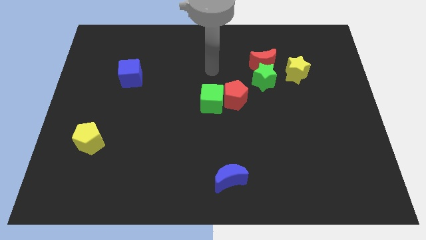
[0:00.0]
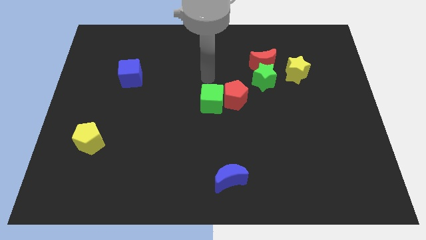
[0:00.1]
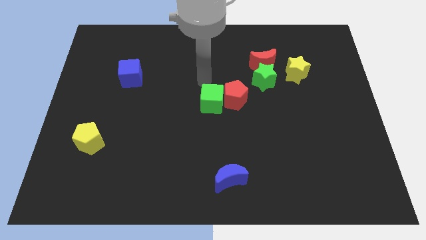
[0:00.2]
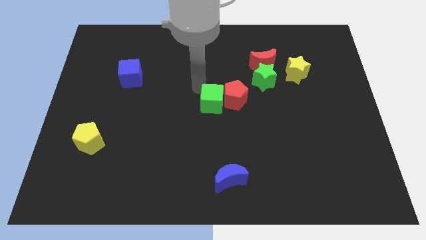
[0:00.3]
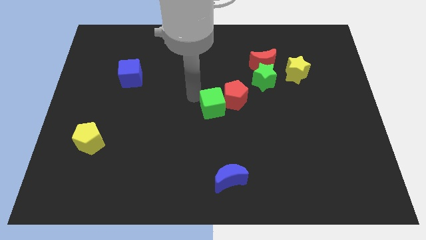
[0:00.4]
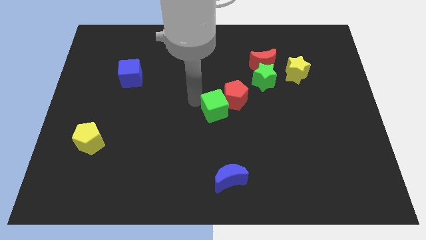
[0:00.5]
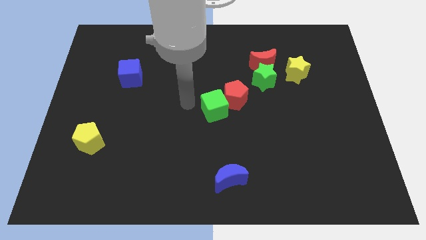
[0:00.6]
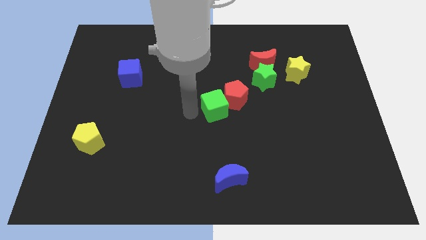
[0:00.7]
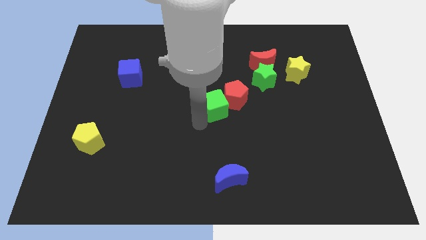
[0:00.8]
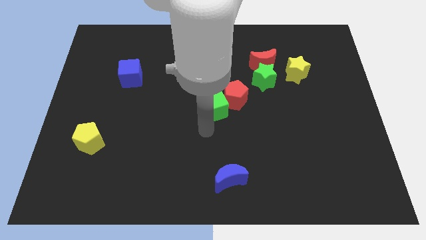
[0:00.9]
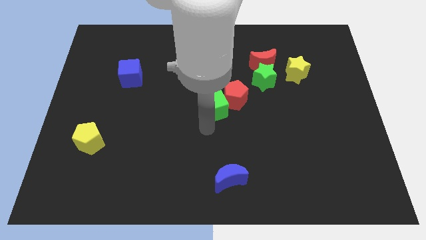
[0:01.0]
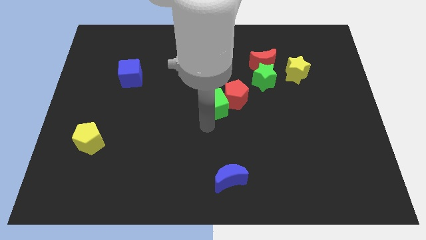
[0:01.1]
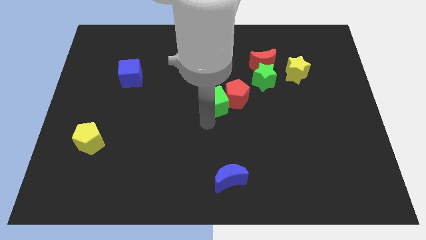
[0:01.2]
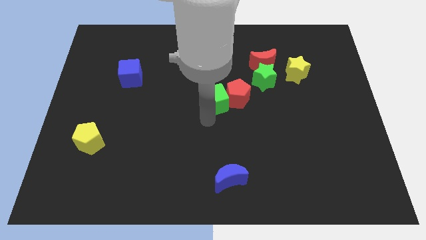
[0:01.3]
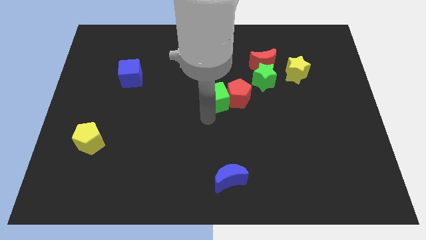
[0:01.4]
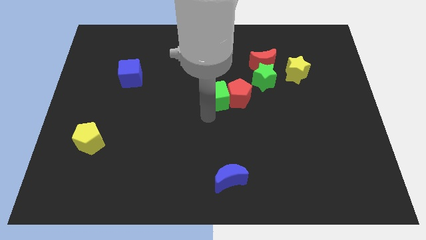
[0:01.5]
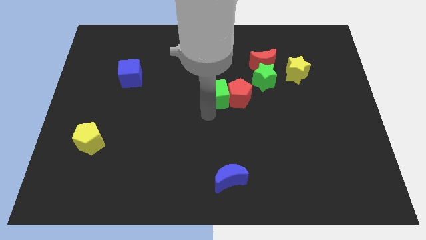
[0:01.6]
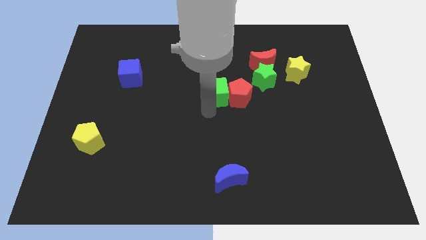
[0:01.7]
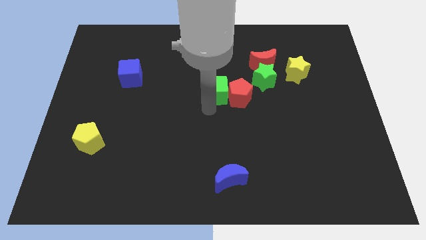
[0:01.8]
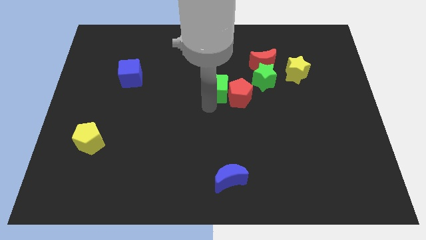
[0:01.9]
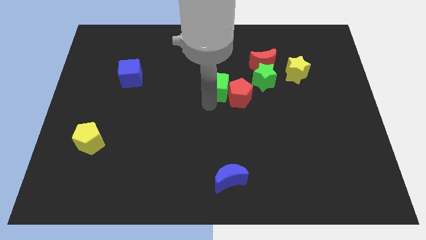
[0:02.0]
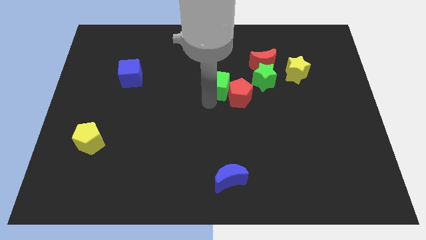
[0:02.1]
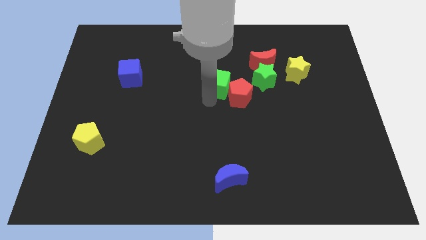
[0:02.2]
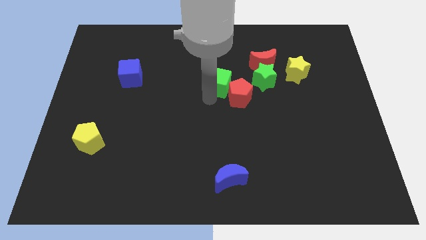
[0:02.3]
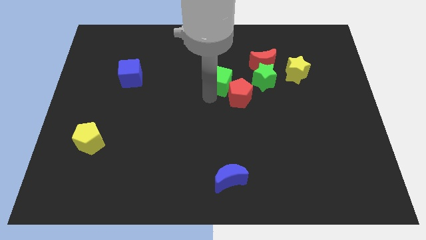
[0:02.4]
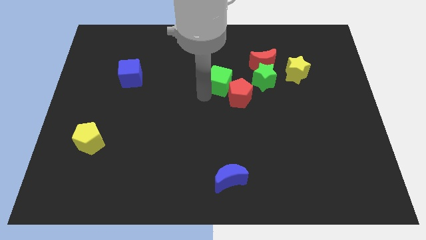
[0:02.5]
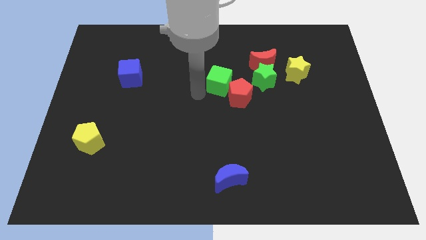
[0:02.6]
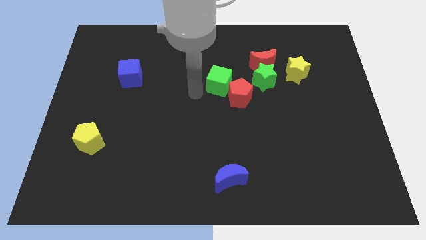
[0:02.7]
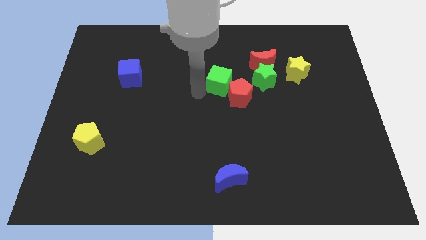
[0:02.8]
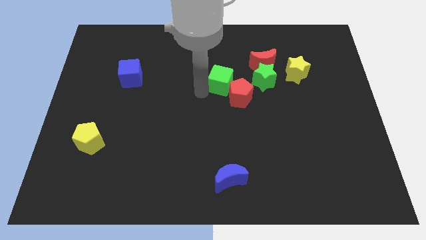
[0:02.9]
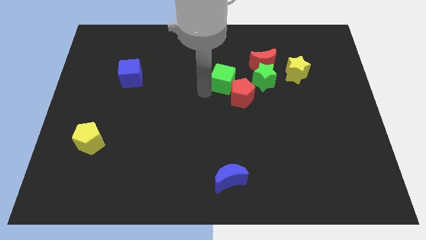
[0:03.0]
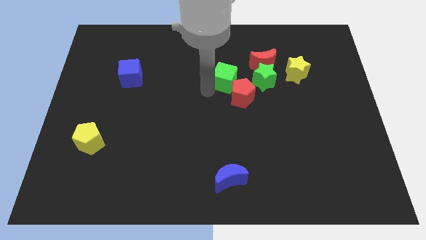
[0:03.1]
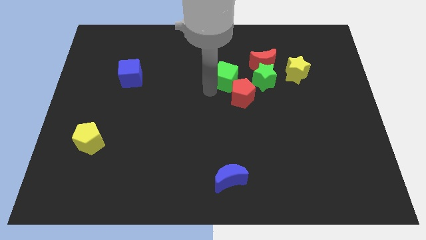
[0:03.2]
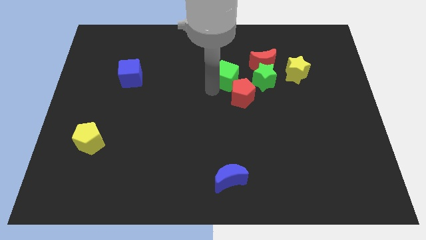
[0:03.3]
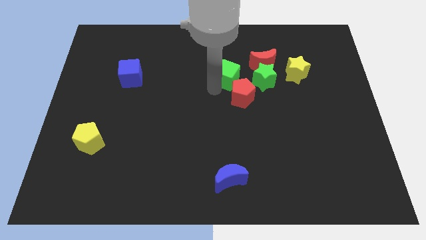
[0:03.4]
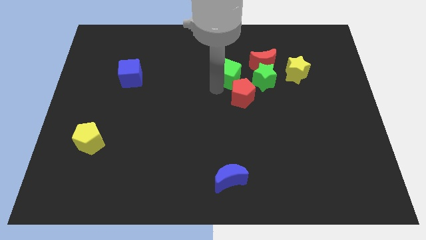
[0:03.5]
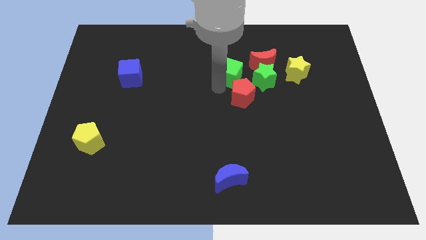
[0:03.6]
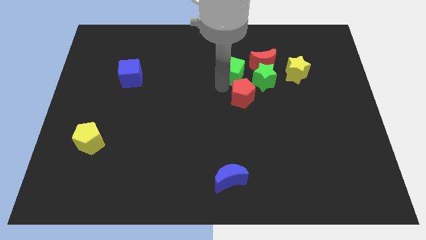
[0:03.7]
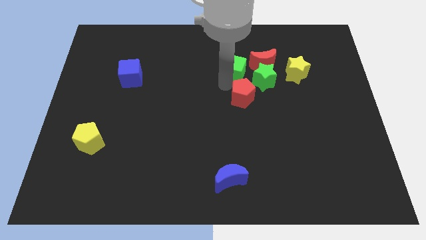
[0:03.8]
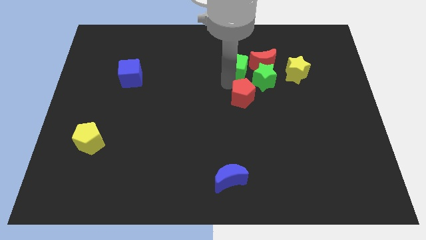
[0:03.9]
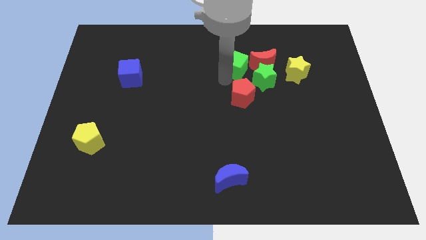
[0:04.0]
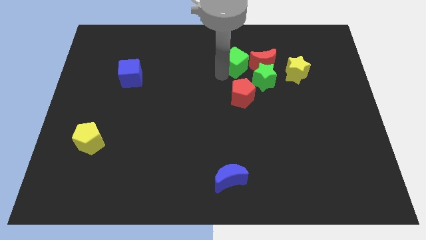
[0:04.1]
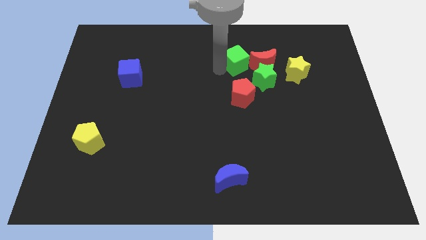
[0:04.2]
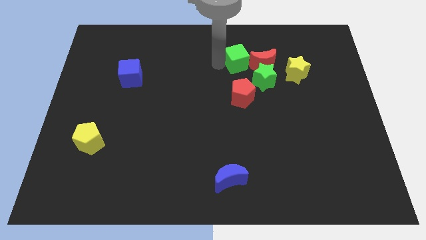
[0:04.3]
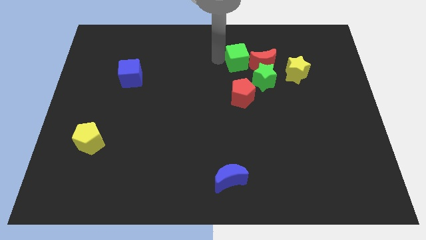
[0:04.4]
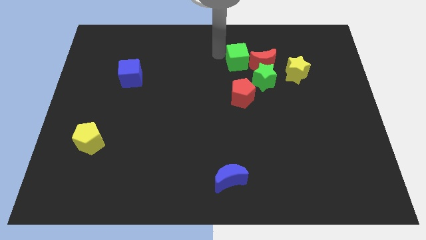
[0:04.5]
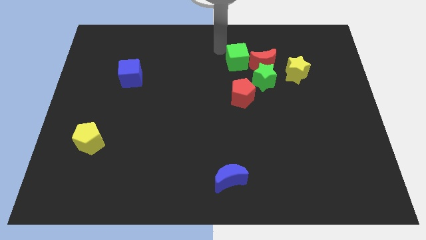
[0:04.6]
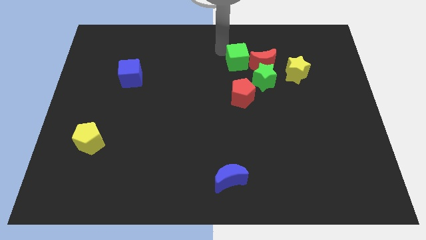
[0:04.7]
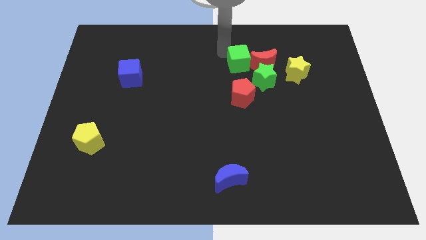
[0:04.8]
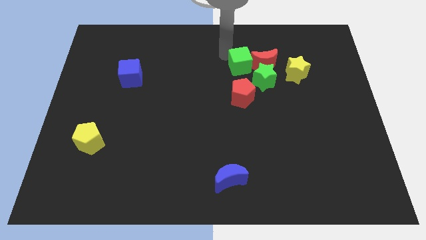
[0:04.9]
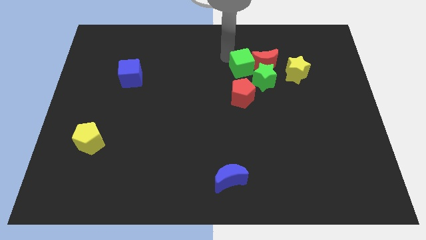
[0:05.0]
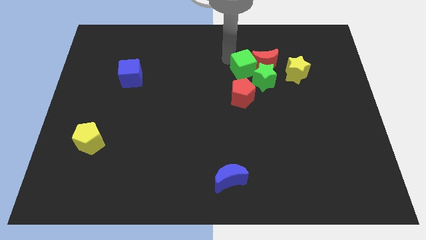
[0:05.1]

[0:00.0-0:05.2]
put the green cube close to the green star

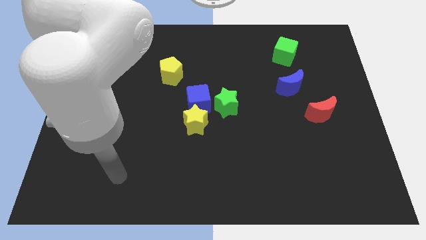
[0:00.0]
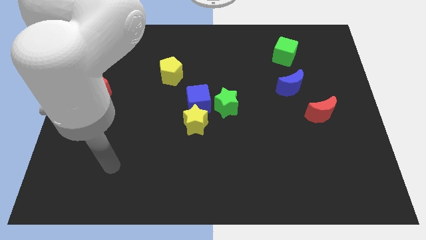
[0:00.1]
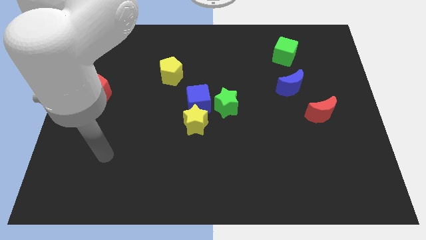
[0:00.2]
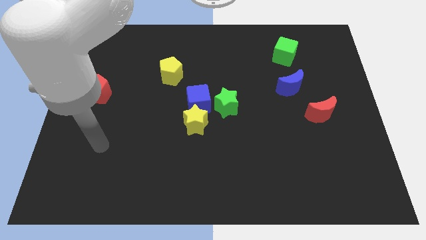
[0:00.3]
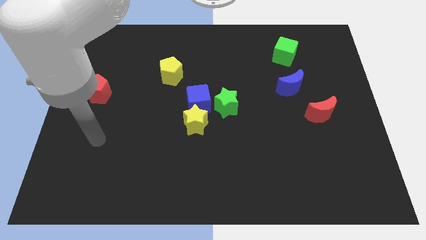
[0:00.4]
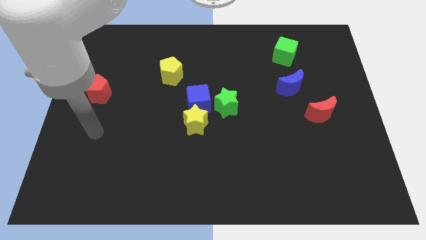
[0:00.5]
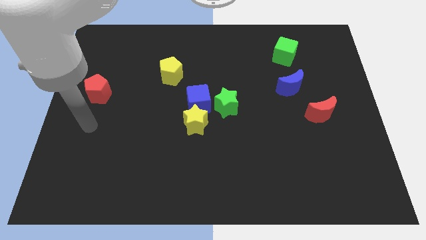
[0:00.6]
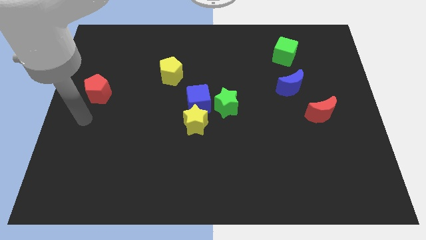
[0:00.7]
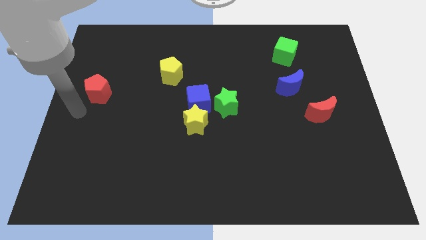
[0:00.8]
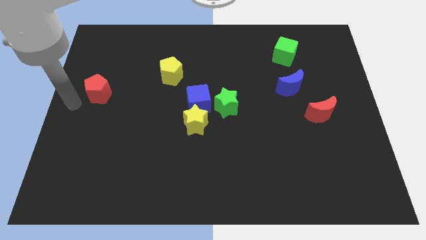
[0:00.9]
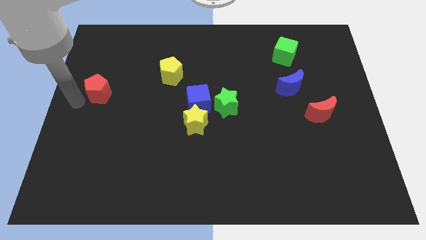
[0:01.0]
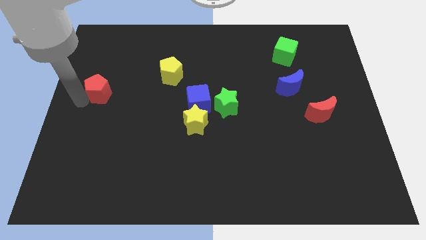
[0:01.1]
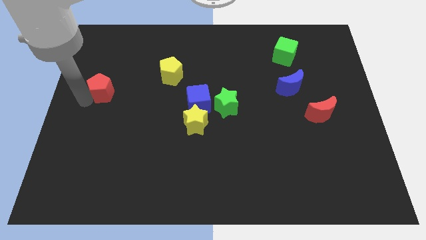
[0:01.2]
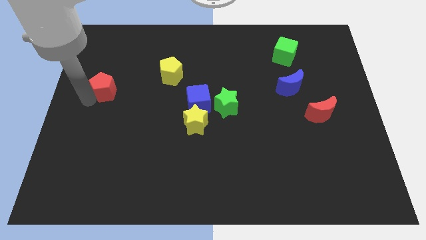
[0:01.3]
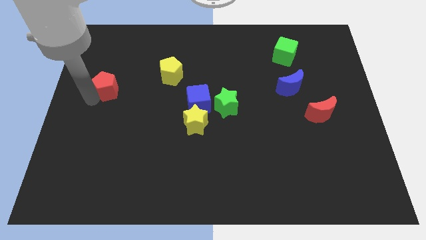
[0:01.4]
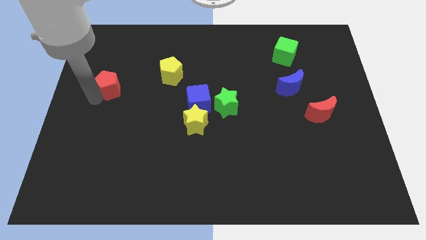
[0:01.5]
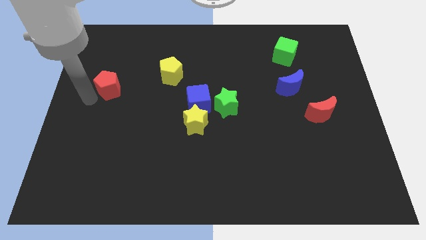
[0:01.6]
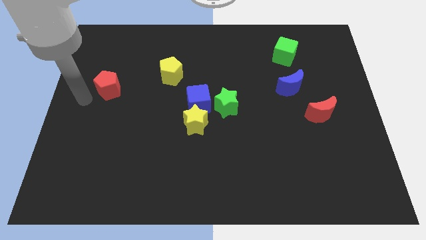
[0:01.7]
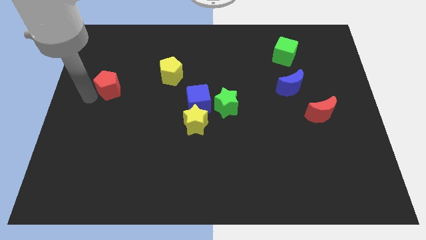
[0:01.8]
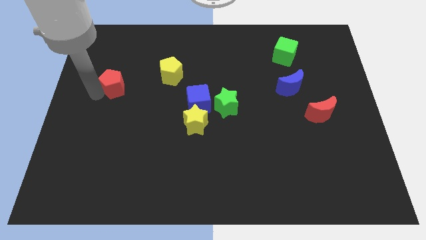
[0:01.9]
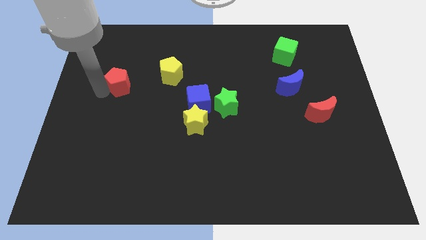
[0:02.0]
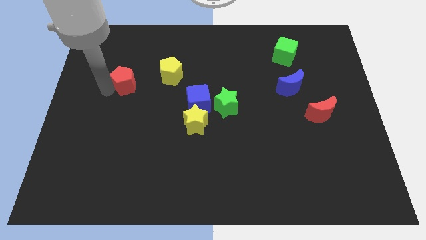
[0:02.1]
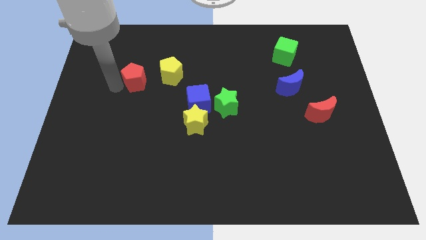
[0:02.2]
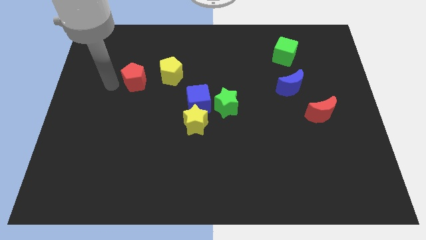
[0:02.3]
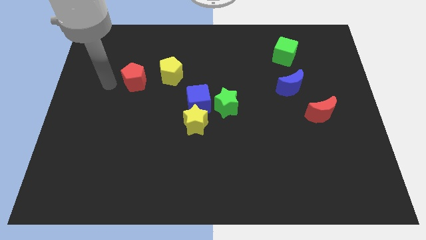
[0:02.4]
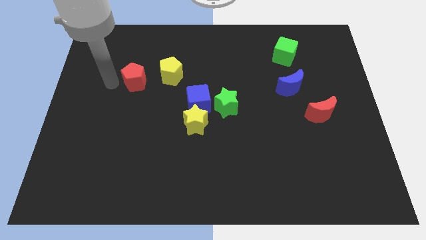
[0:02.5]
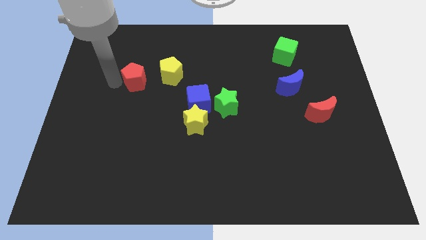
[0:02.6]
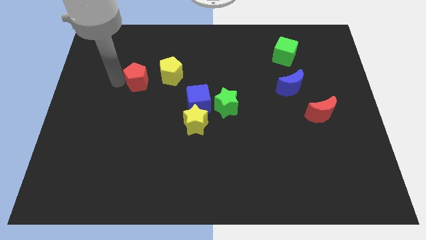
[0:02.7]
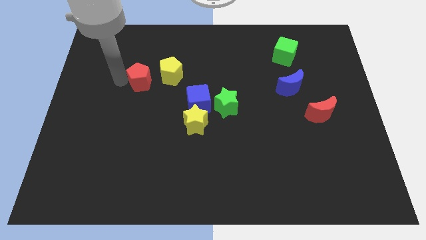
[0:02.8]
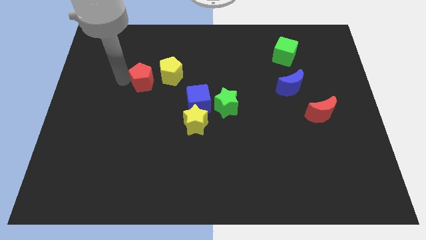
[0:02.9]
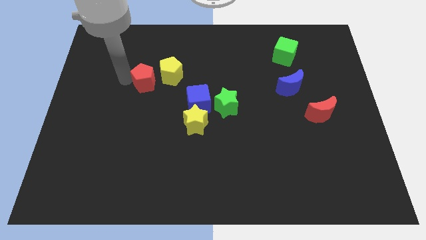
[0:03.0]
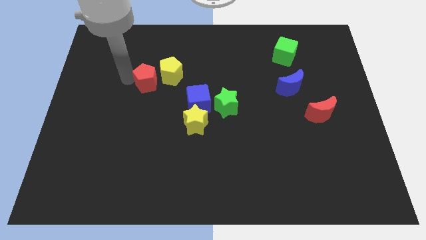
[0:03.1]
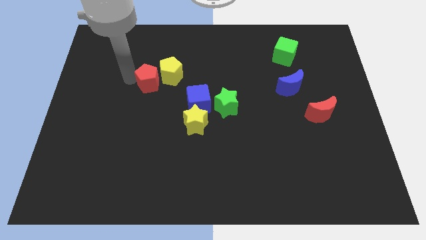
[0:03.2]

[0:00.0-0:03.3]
move the red pentagon close to the yellow pentagon
